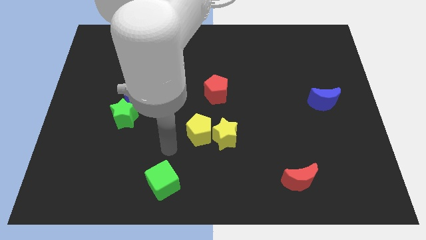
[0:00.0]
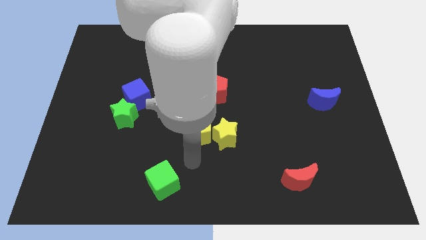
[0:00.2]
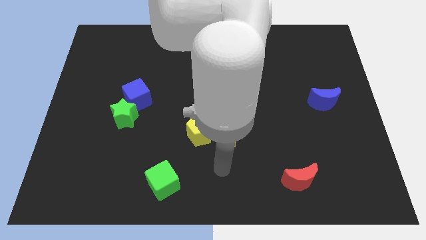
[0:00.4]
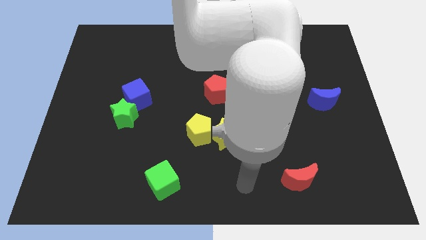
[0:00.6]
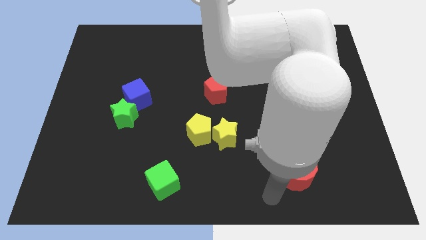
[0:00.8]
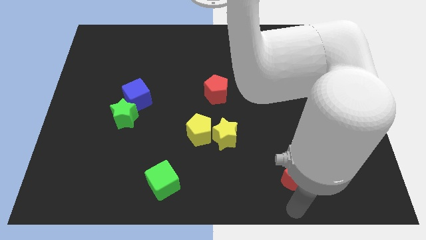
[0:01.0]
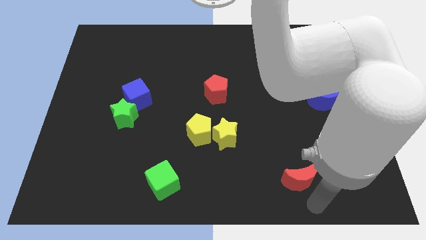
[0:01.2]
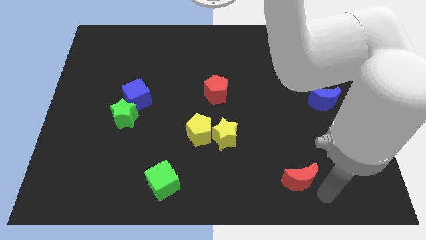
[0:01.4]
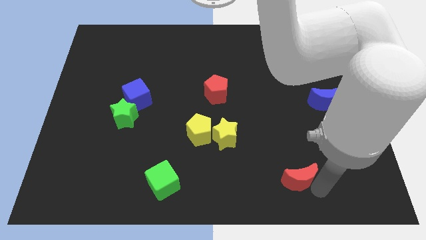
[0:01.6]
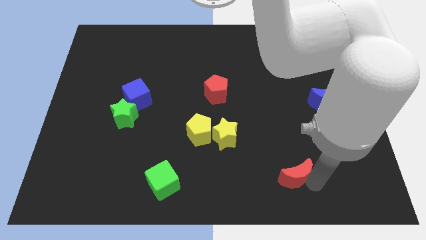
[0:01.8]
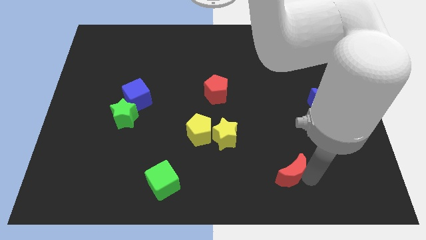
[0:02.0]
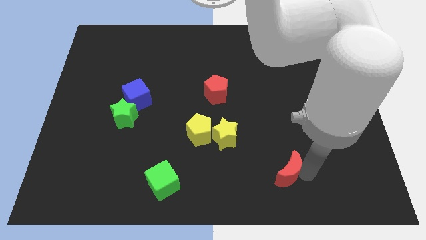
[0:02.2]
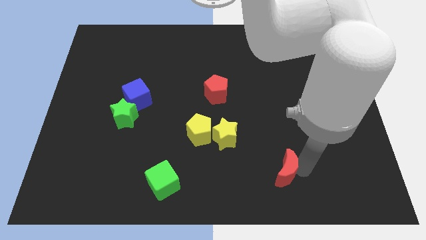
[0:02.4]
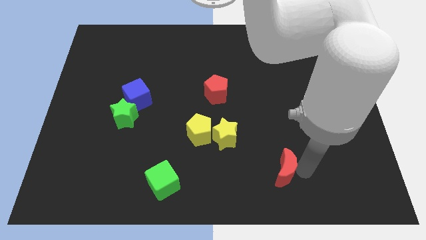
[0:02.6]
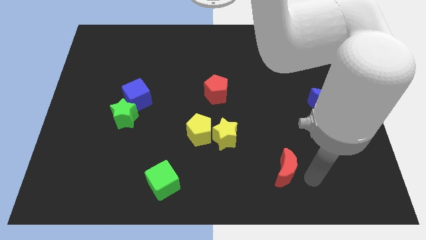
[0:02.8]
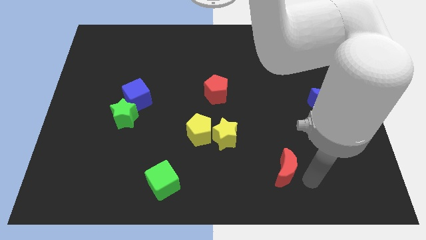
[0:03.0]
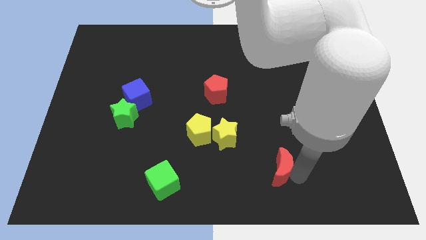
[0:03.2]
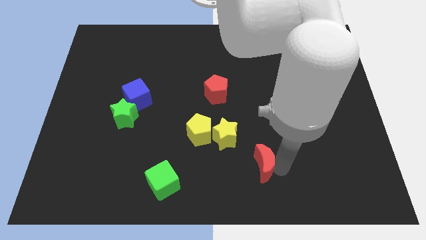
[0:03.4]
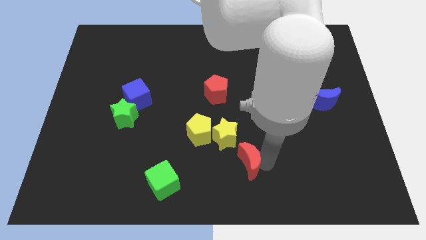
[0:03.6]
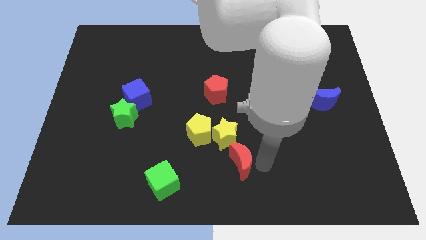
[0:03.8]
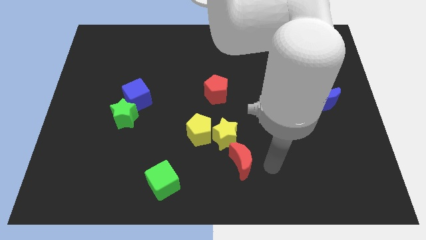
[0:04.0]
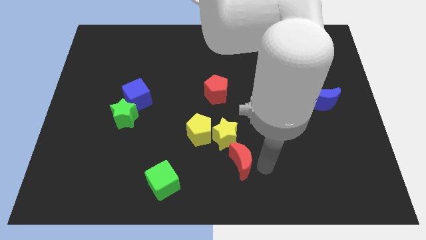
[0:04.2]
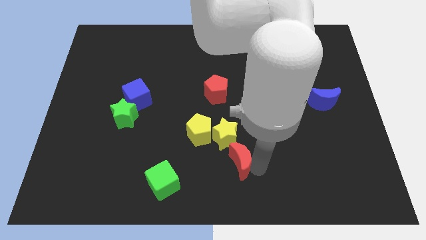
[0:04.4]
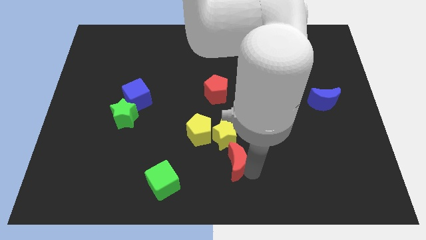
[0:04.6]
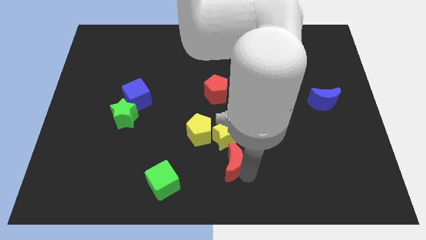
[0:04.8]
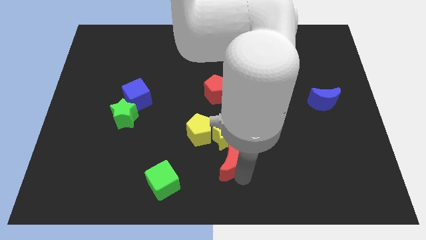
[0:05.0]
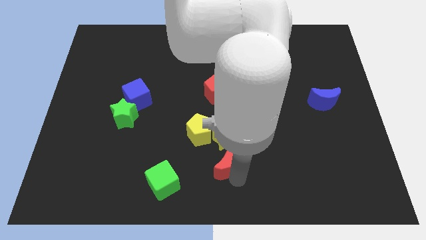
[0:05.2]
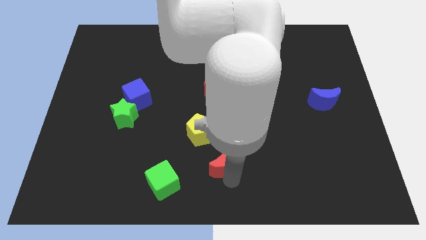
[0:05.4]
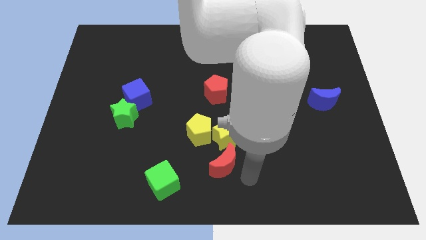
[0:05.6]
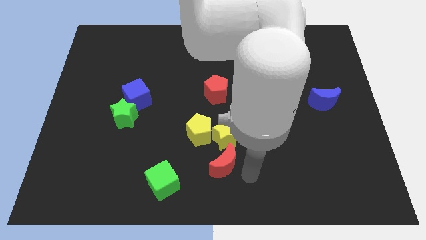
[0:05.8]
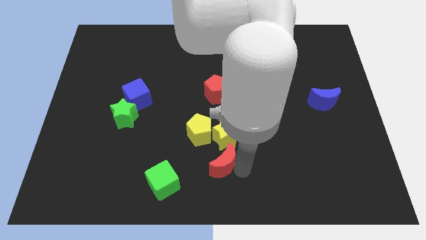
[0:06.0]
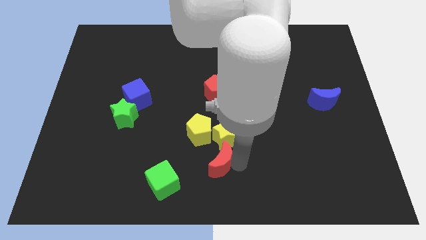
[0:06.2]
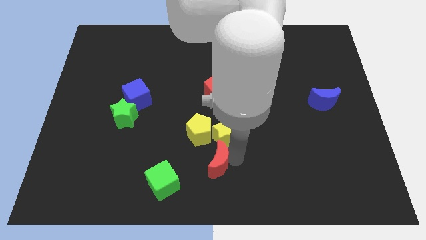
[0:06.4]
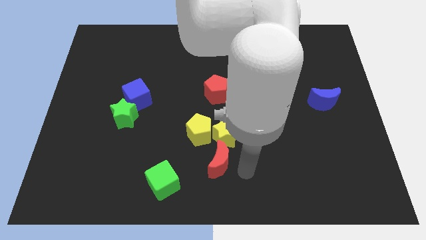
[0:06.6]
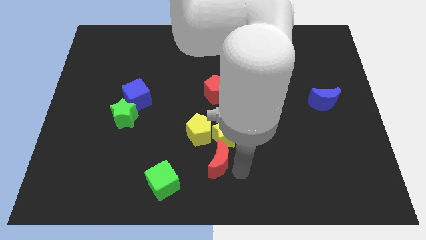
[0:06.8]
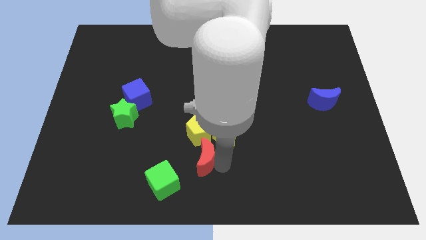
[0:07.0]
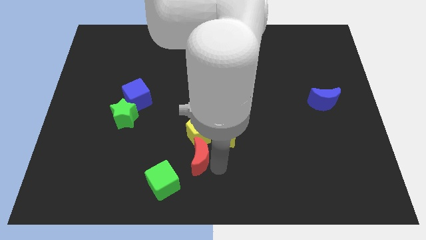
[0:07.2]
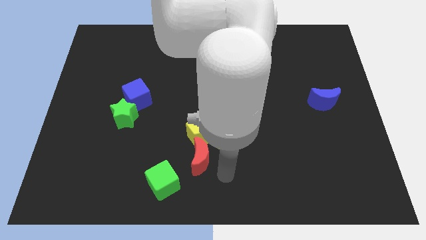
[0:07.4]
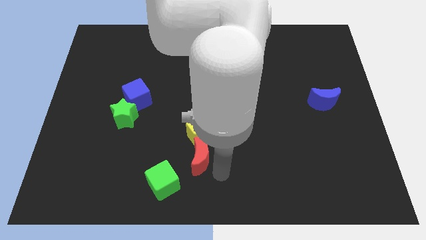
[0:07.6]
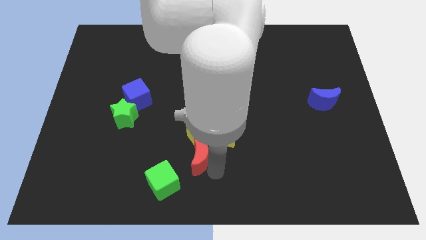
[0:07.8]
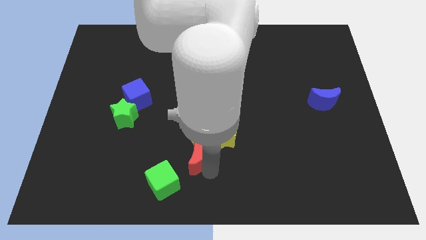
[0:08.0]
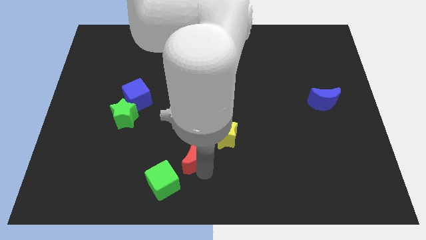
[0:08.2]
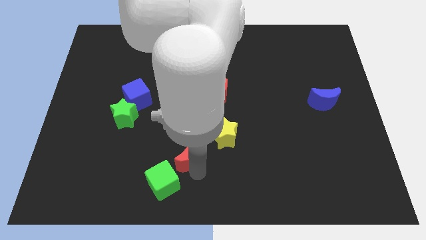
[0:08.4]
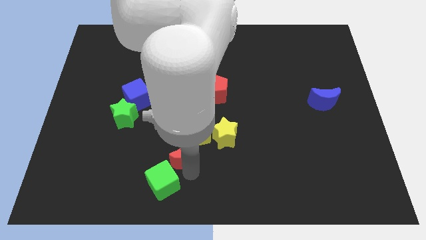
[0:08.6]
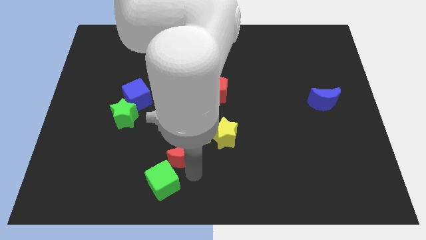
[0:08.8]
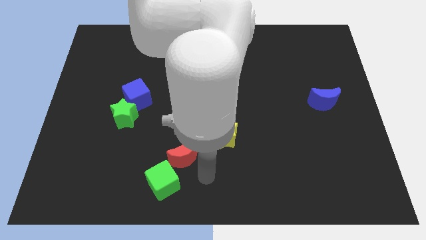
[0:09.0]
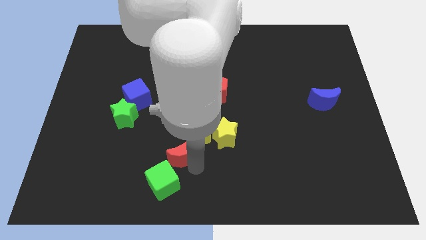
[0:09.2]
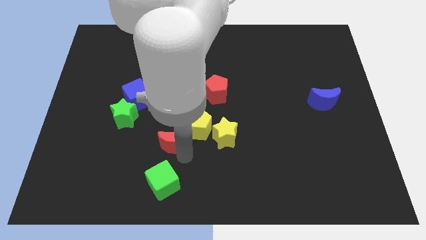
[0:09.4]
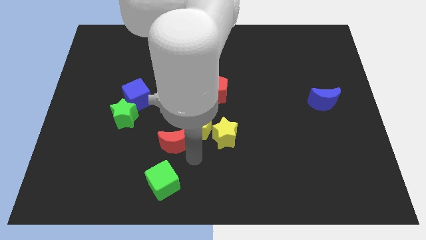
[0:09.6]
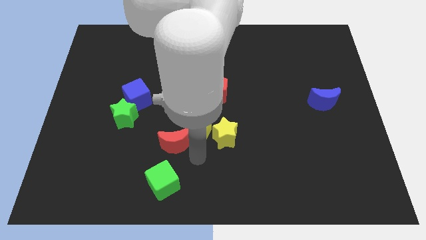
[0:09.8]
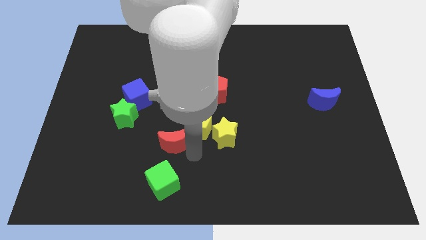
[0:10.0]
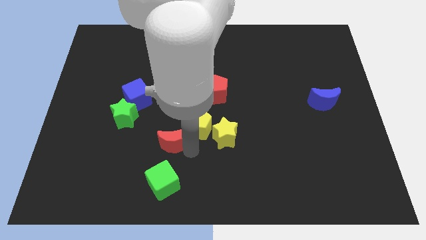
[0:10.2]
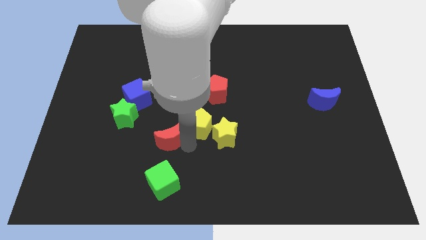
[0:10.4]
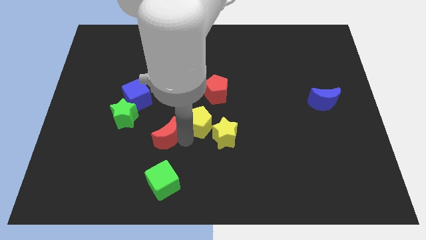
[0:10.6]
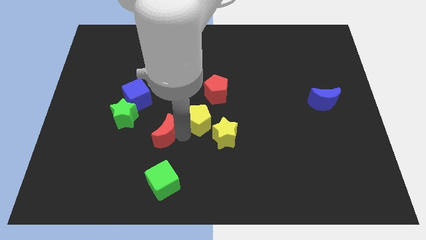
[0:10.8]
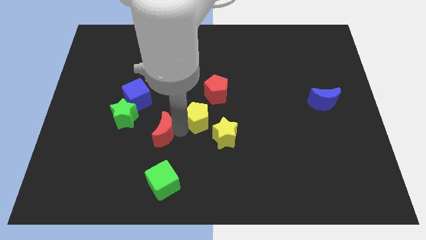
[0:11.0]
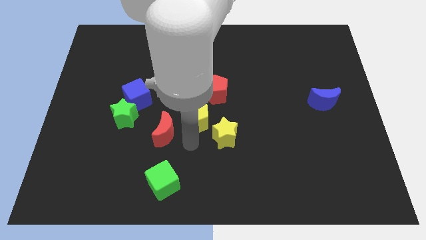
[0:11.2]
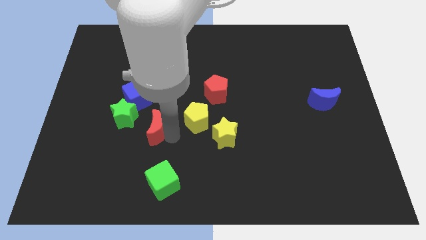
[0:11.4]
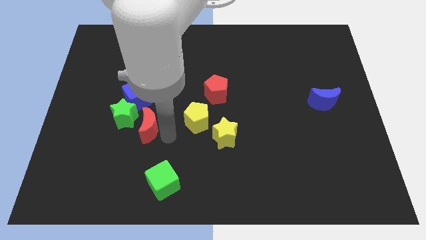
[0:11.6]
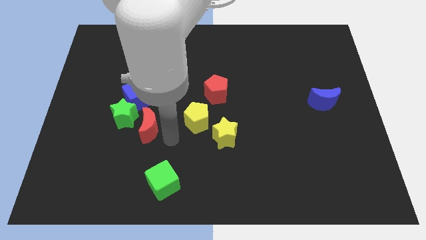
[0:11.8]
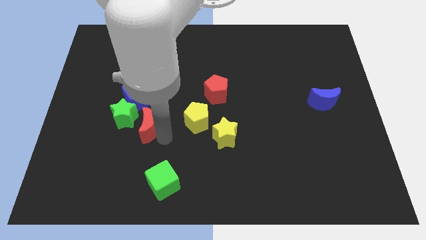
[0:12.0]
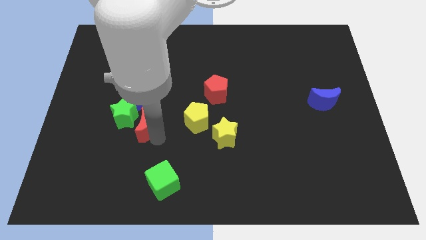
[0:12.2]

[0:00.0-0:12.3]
put the red moon to the green star

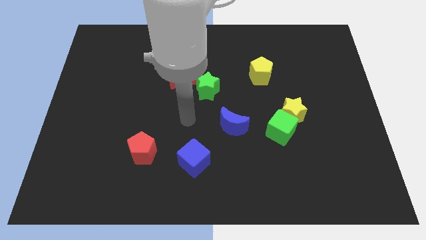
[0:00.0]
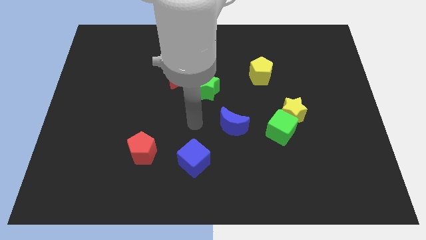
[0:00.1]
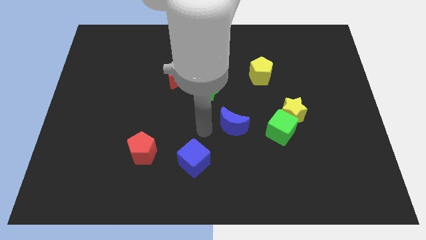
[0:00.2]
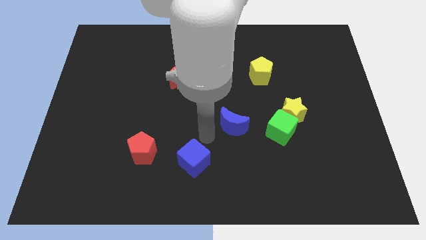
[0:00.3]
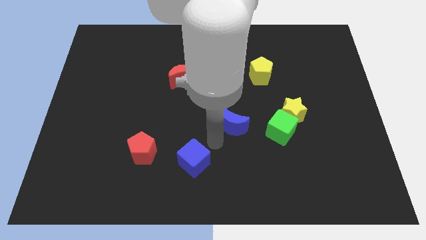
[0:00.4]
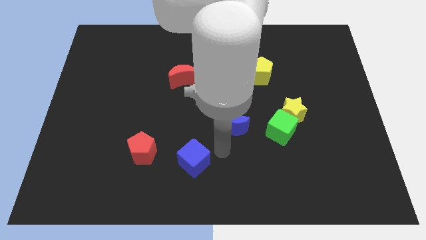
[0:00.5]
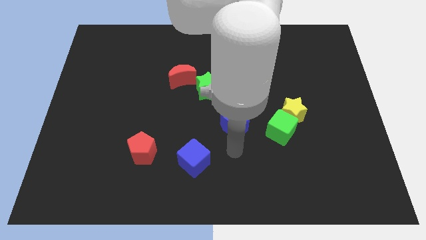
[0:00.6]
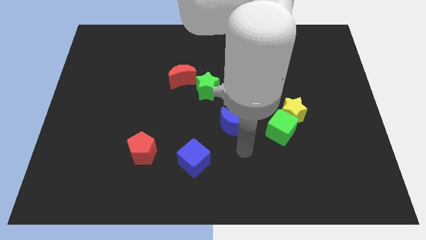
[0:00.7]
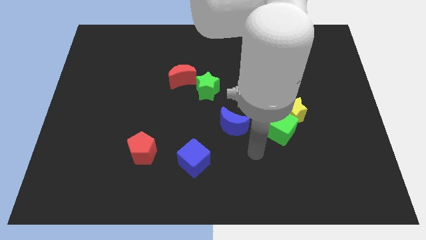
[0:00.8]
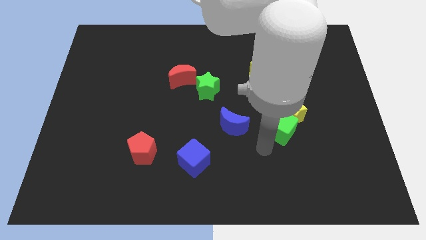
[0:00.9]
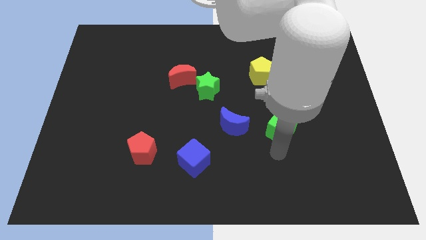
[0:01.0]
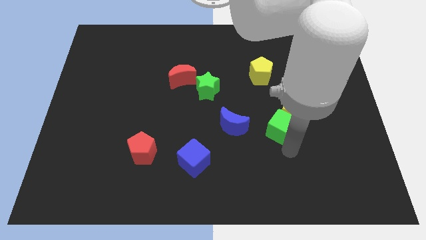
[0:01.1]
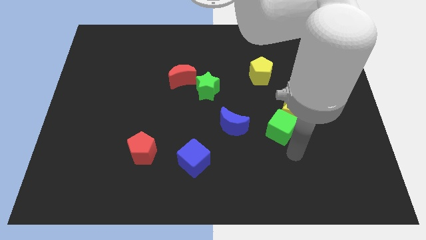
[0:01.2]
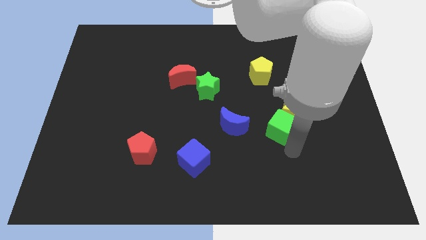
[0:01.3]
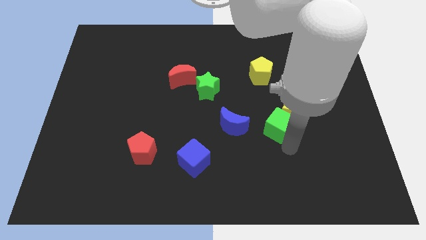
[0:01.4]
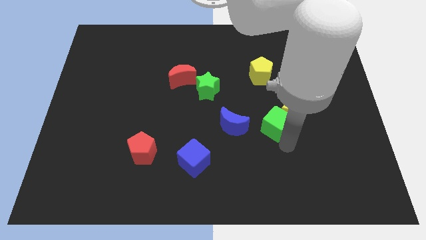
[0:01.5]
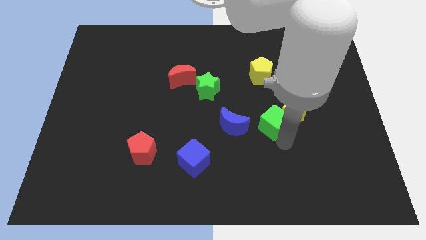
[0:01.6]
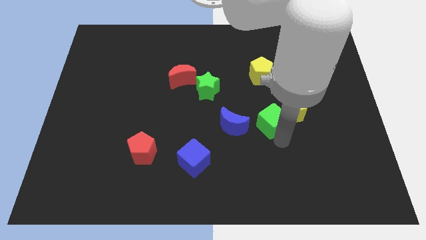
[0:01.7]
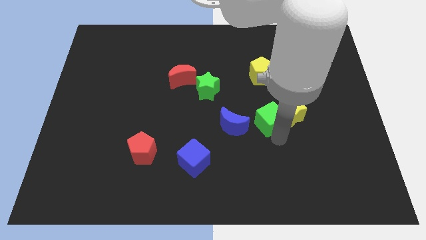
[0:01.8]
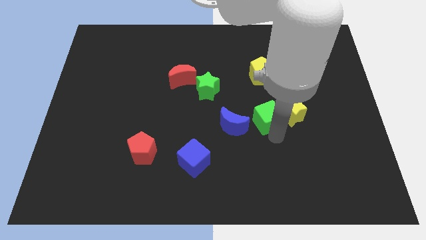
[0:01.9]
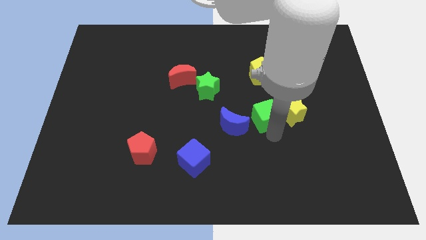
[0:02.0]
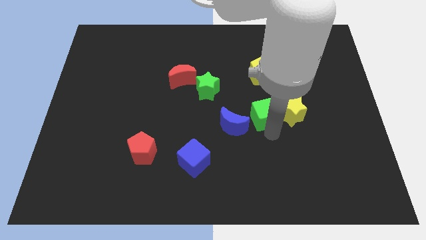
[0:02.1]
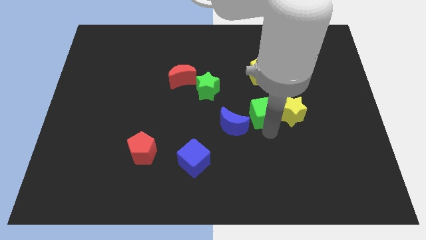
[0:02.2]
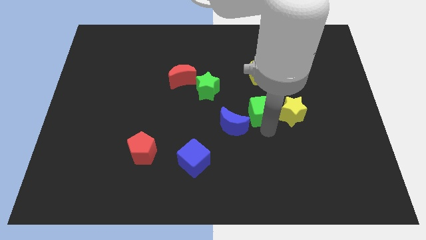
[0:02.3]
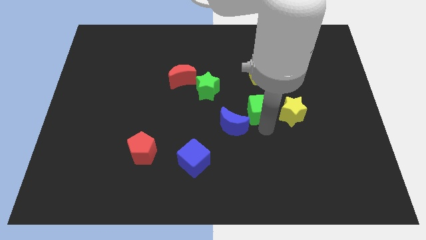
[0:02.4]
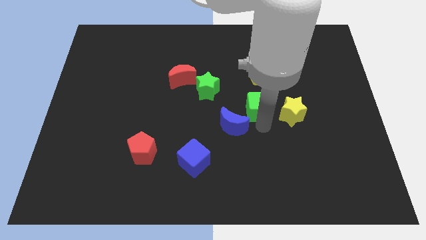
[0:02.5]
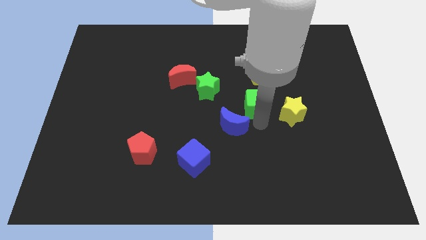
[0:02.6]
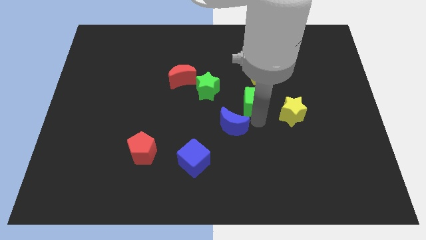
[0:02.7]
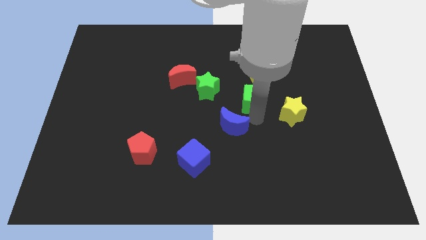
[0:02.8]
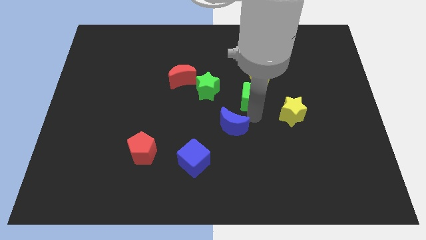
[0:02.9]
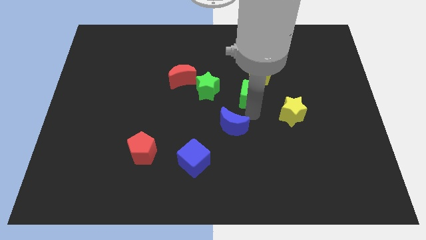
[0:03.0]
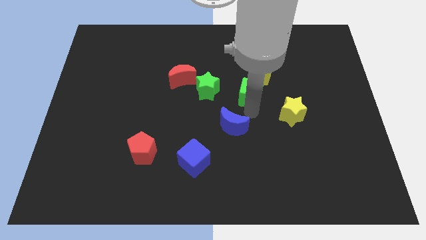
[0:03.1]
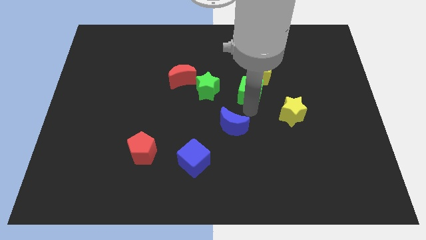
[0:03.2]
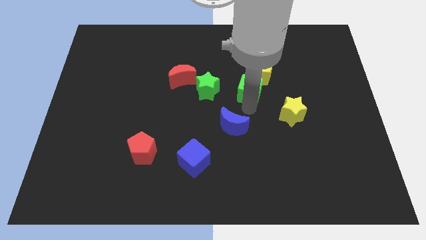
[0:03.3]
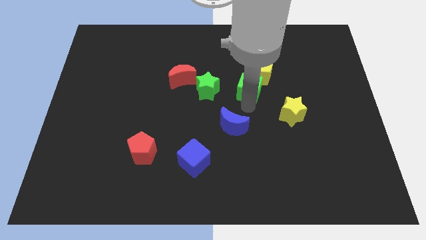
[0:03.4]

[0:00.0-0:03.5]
put the green cube towards the yellow pentagon
